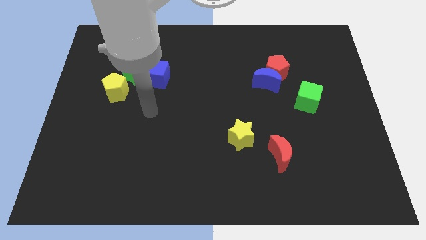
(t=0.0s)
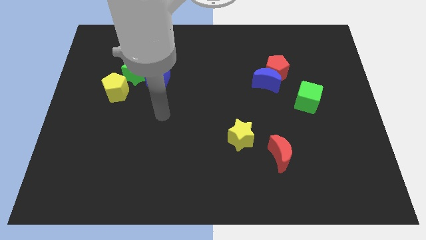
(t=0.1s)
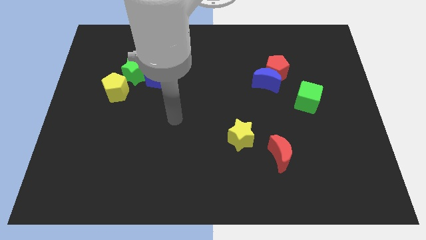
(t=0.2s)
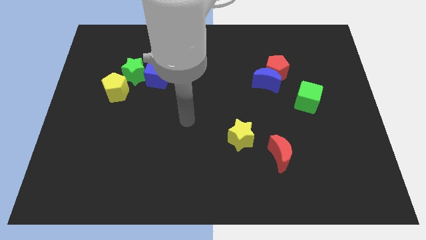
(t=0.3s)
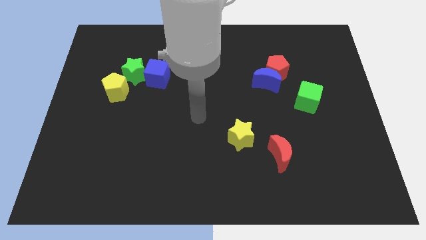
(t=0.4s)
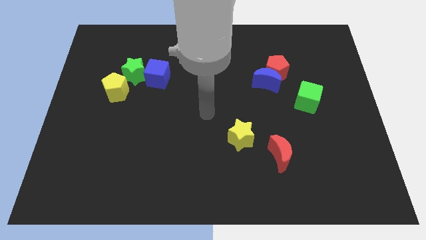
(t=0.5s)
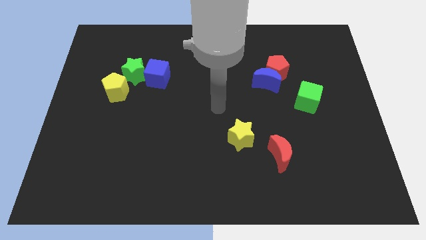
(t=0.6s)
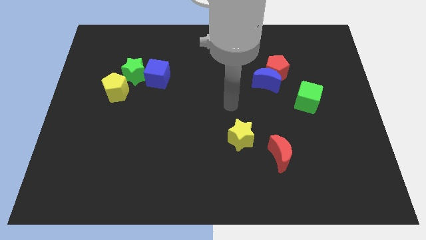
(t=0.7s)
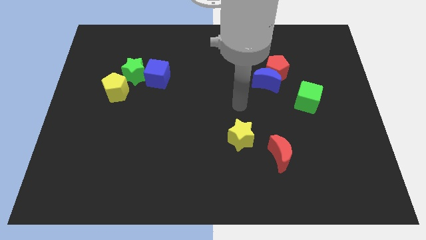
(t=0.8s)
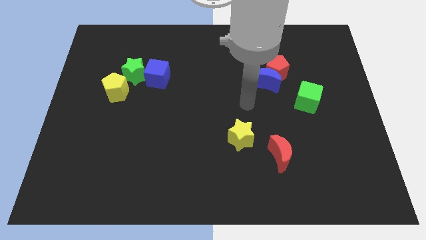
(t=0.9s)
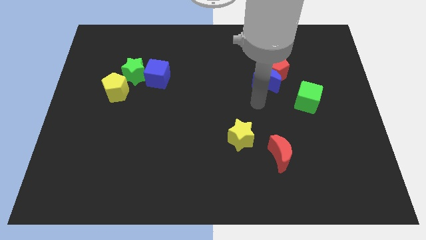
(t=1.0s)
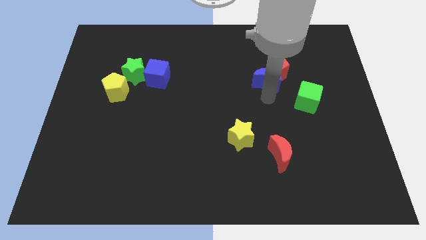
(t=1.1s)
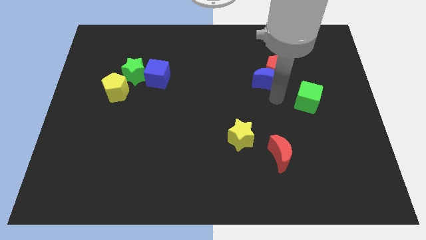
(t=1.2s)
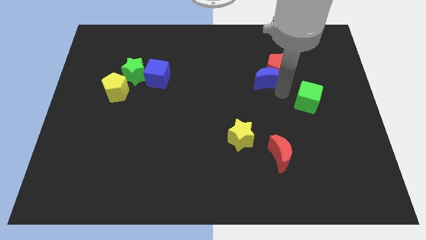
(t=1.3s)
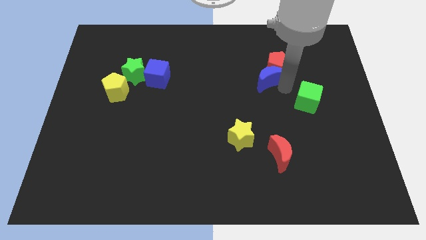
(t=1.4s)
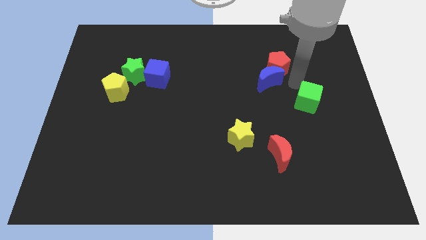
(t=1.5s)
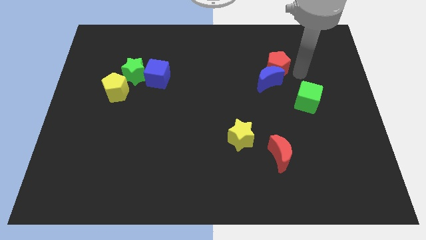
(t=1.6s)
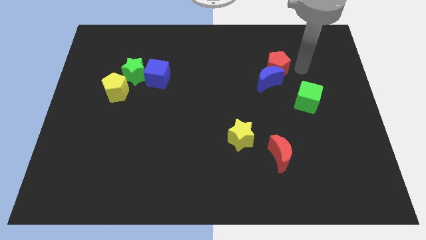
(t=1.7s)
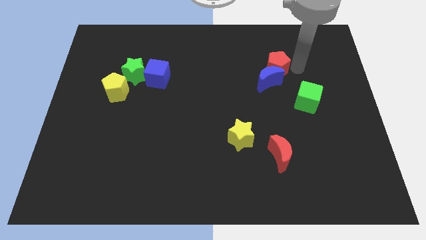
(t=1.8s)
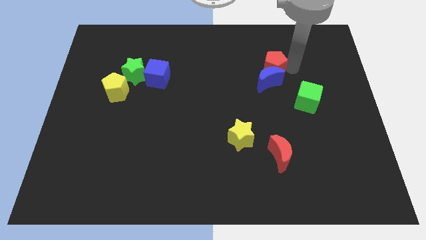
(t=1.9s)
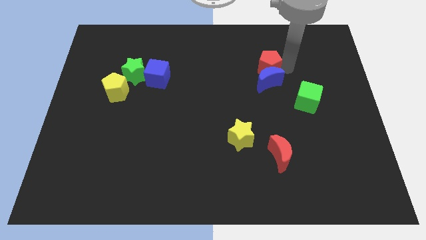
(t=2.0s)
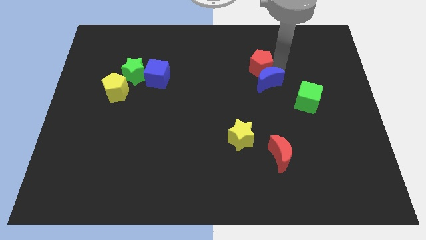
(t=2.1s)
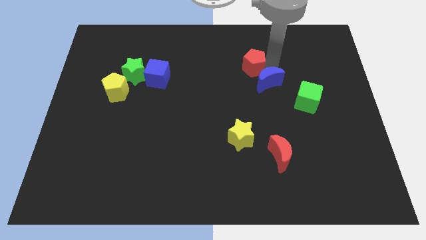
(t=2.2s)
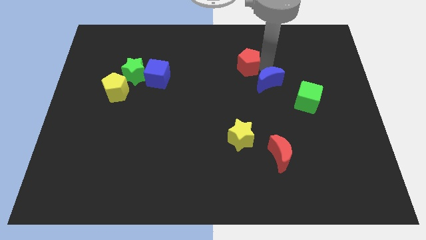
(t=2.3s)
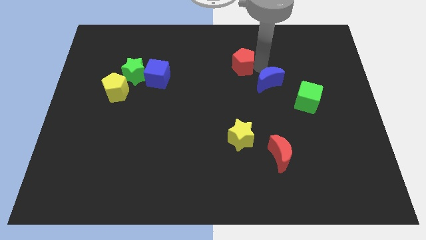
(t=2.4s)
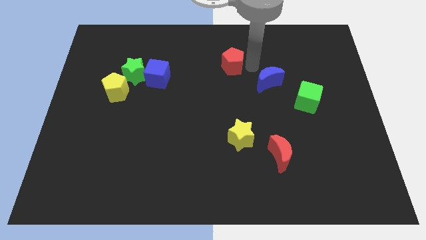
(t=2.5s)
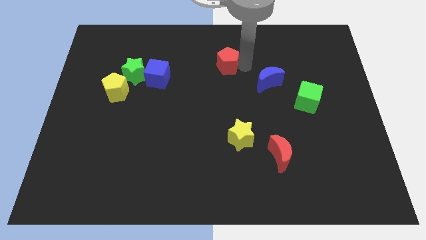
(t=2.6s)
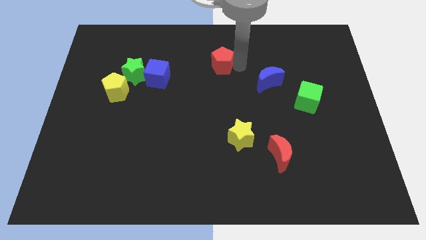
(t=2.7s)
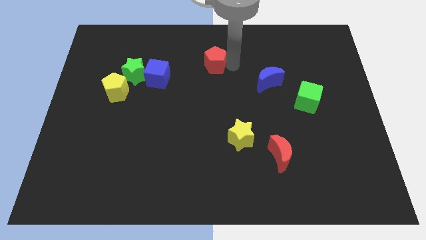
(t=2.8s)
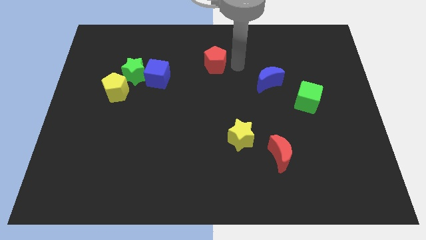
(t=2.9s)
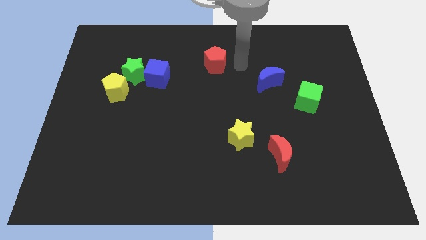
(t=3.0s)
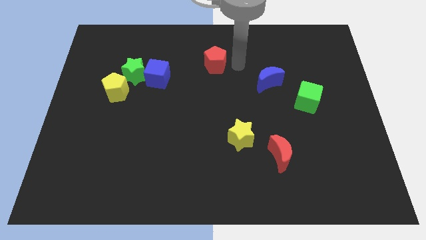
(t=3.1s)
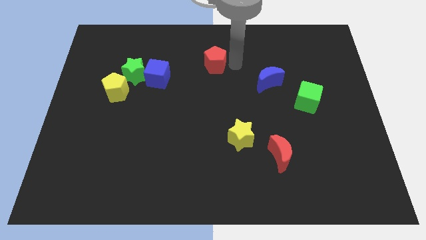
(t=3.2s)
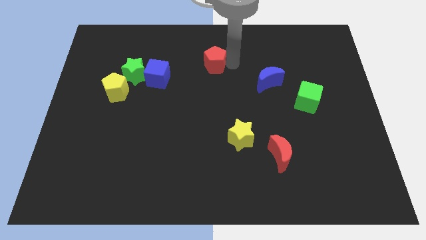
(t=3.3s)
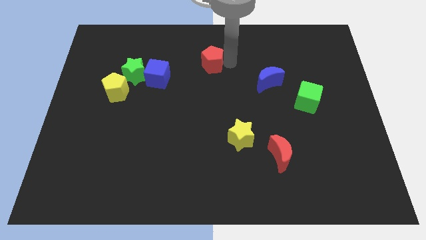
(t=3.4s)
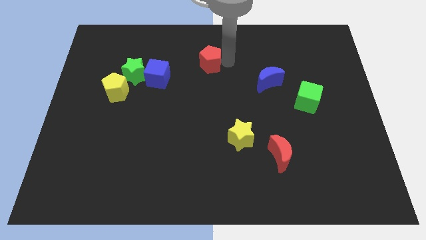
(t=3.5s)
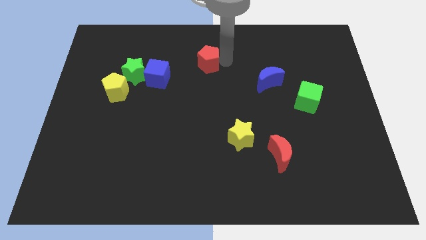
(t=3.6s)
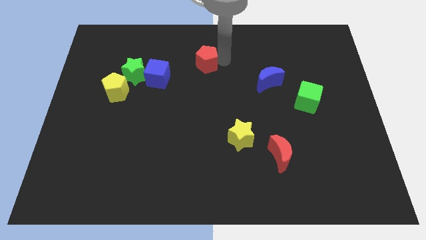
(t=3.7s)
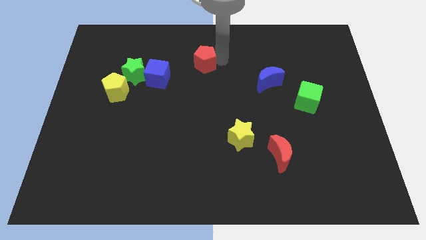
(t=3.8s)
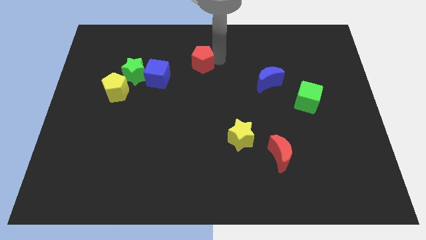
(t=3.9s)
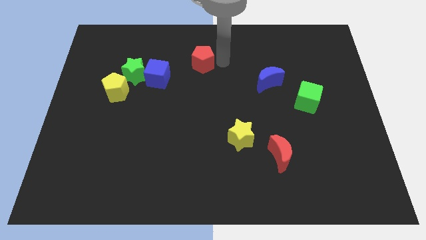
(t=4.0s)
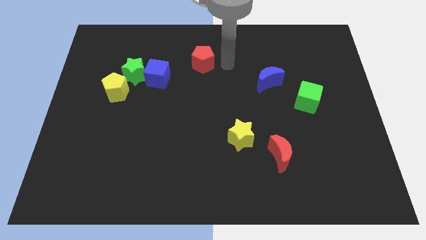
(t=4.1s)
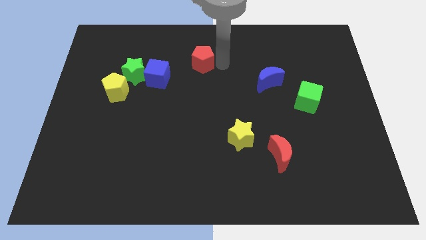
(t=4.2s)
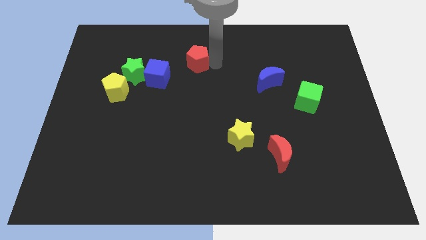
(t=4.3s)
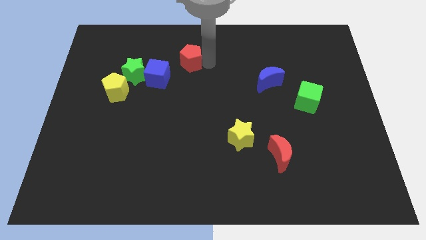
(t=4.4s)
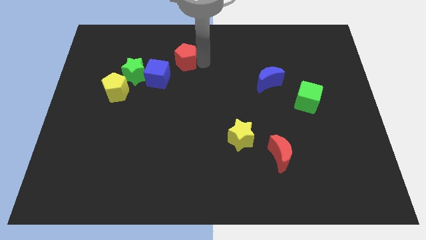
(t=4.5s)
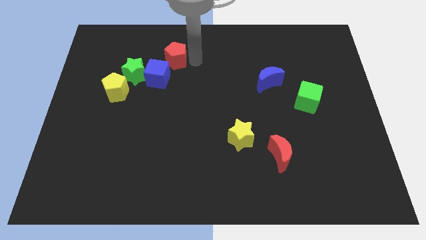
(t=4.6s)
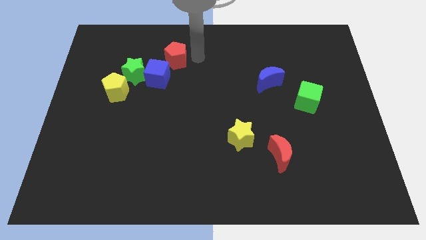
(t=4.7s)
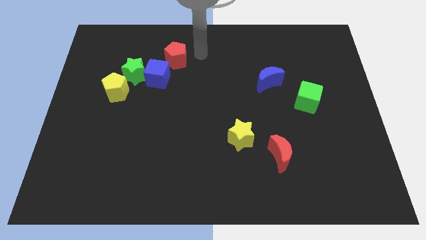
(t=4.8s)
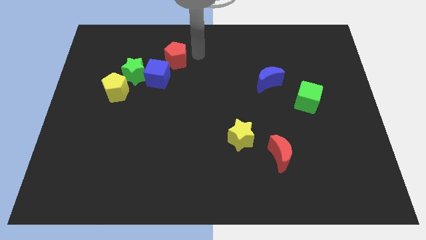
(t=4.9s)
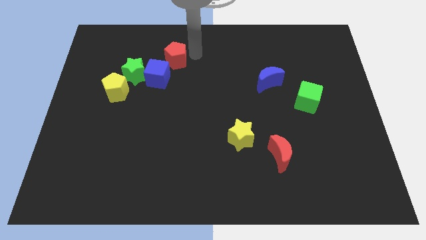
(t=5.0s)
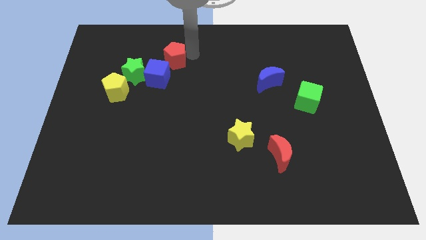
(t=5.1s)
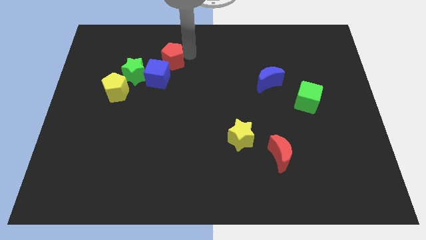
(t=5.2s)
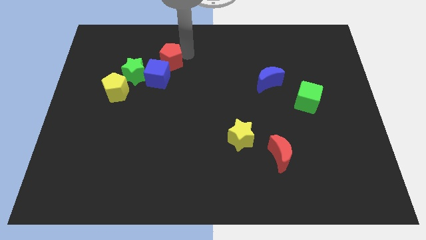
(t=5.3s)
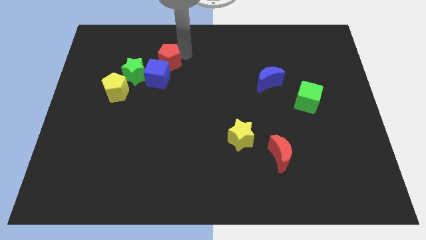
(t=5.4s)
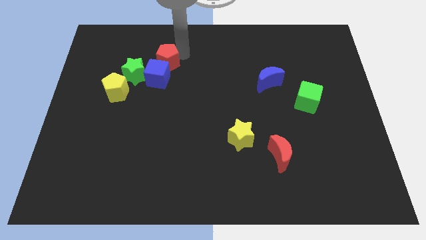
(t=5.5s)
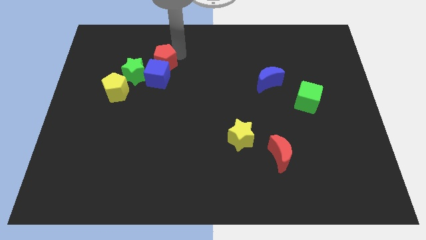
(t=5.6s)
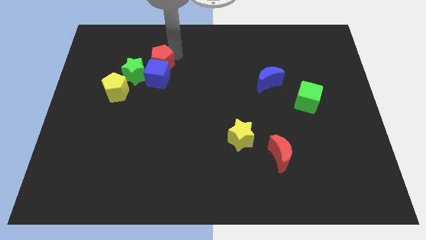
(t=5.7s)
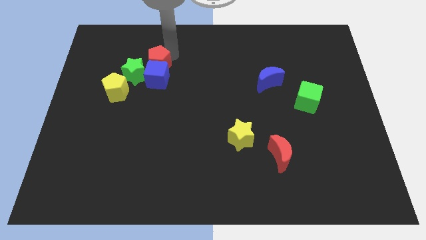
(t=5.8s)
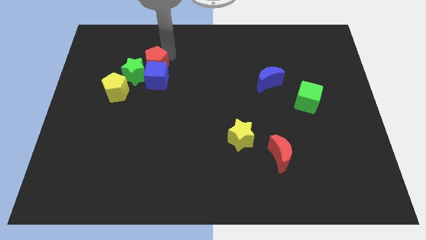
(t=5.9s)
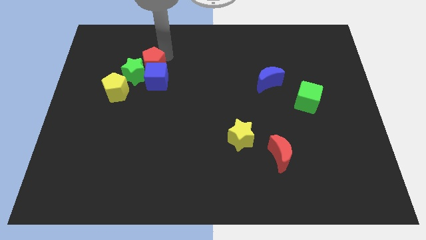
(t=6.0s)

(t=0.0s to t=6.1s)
put the red pentagon to the green star

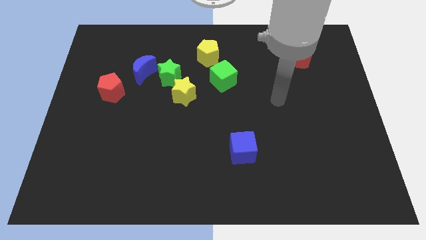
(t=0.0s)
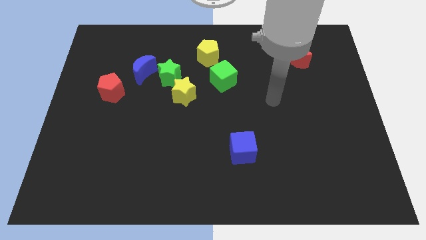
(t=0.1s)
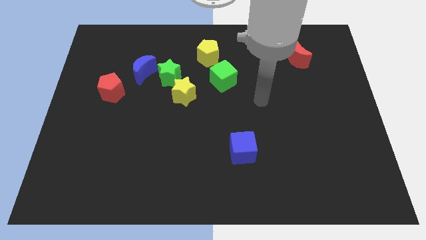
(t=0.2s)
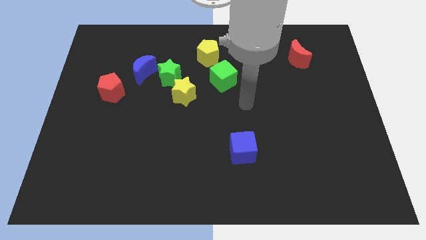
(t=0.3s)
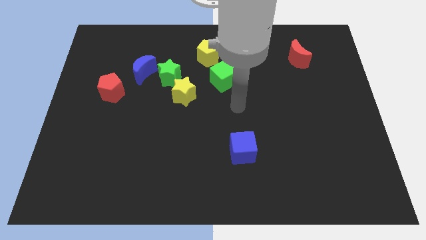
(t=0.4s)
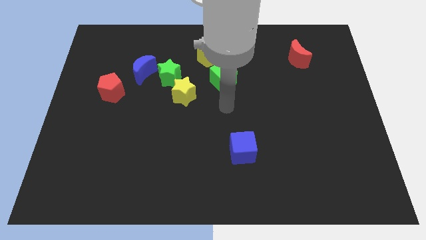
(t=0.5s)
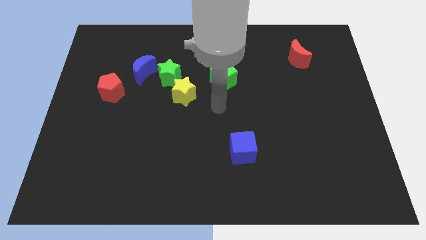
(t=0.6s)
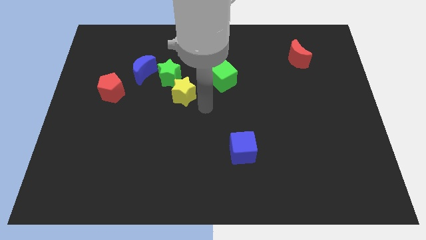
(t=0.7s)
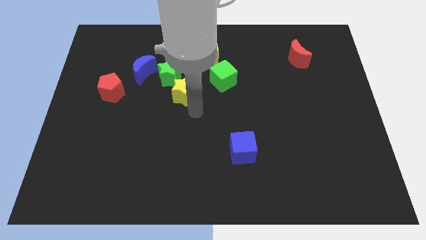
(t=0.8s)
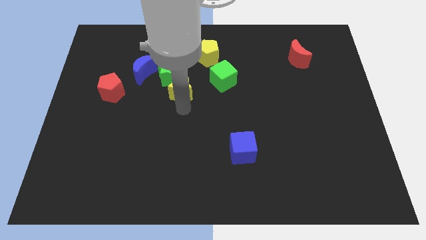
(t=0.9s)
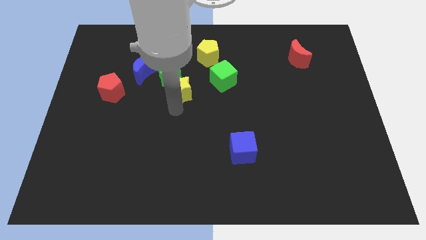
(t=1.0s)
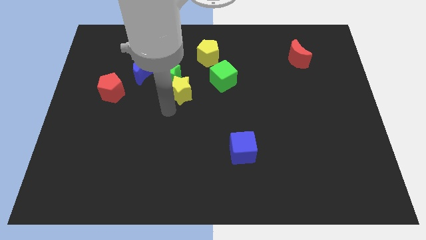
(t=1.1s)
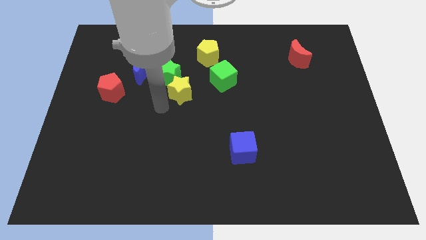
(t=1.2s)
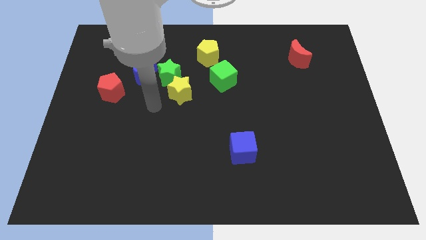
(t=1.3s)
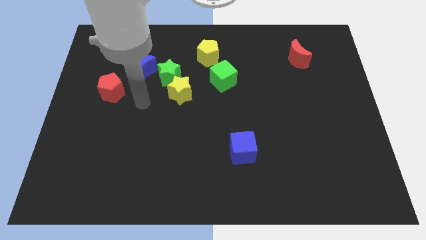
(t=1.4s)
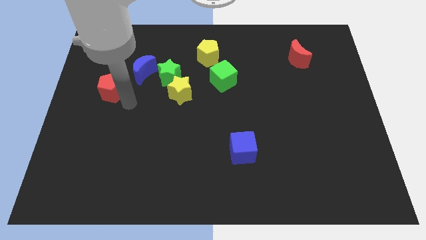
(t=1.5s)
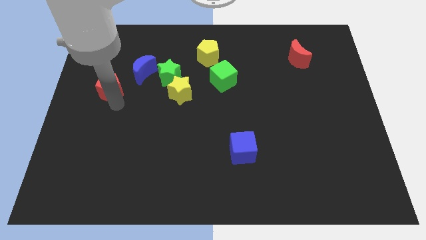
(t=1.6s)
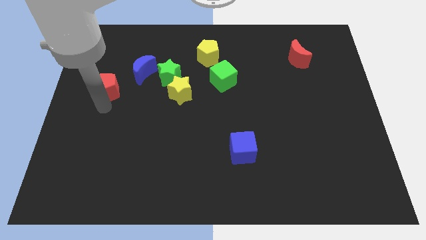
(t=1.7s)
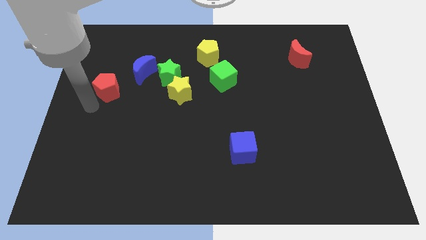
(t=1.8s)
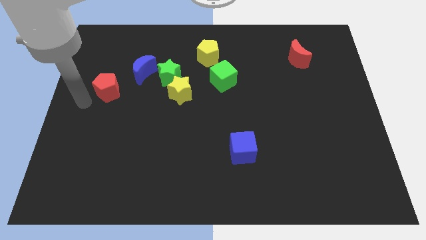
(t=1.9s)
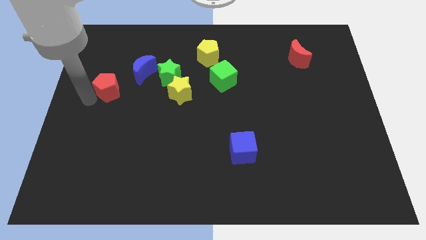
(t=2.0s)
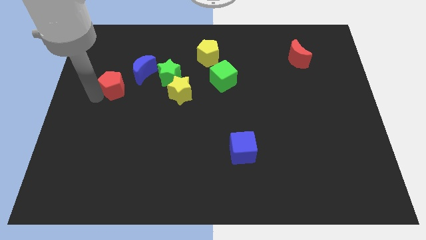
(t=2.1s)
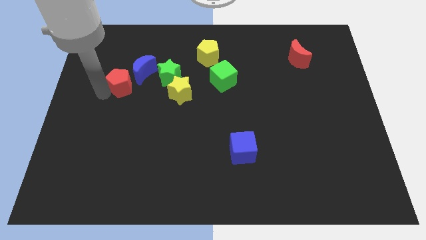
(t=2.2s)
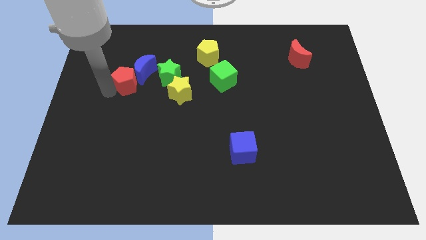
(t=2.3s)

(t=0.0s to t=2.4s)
slide the red pentagon next to the blue moon
